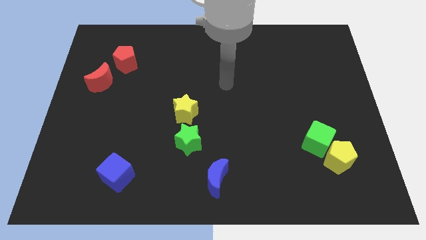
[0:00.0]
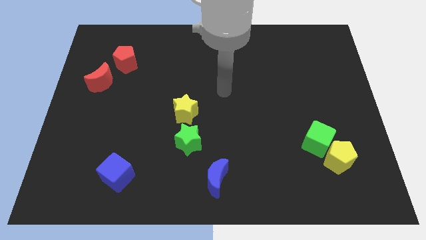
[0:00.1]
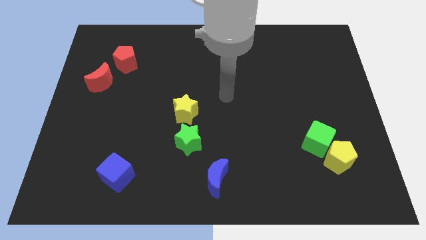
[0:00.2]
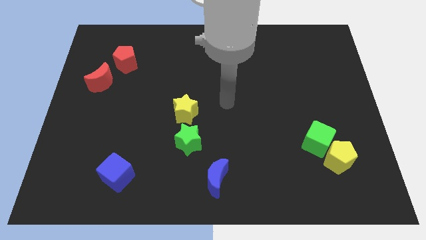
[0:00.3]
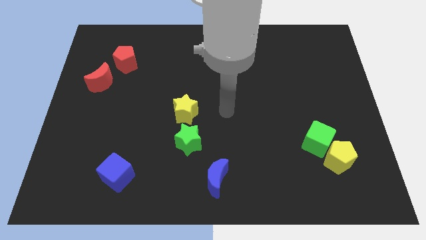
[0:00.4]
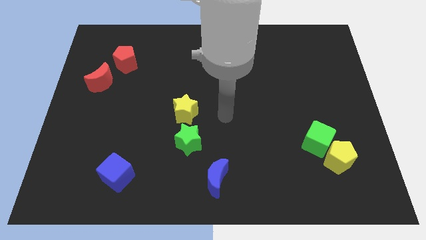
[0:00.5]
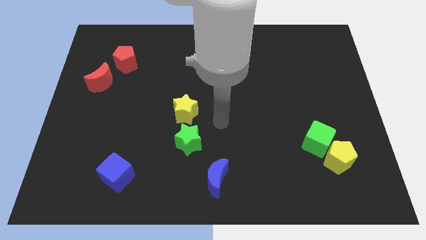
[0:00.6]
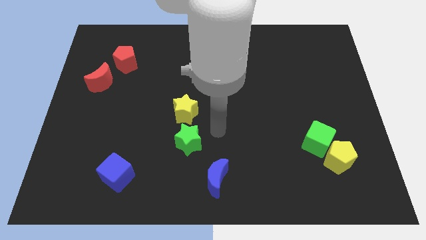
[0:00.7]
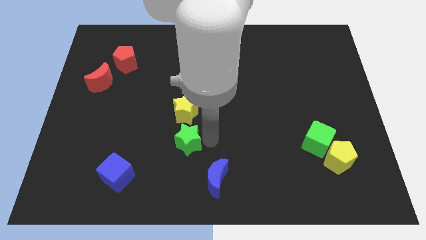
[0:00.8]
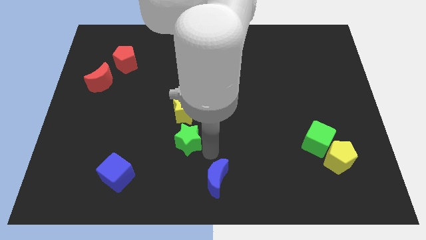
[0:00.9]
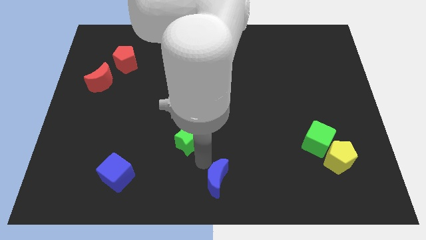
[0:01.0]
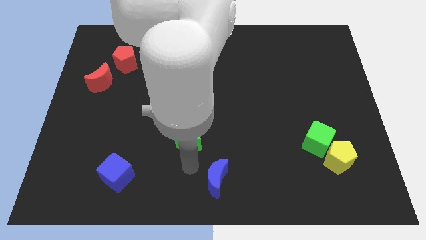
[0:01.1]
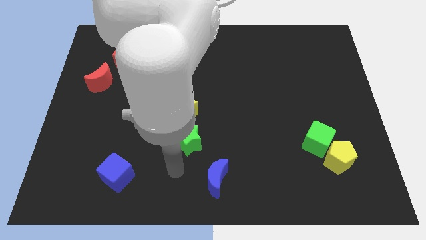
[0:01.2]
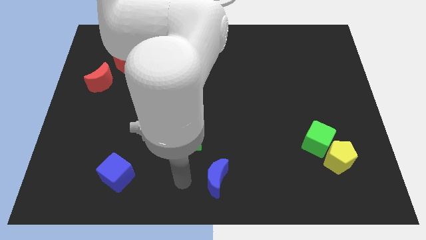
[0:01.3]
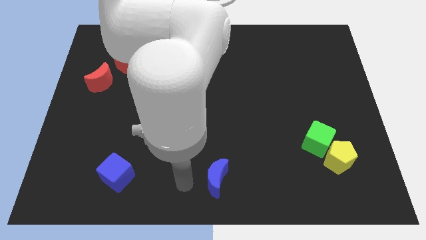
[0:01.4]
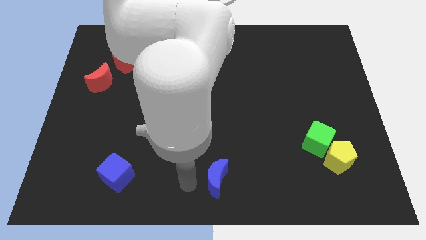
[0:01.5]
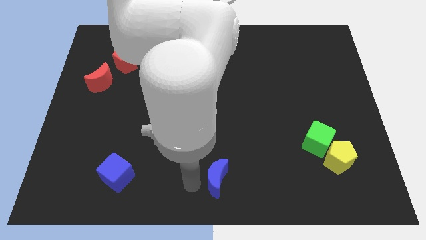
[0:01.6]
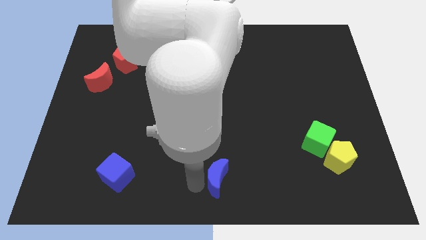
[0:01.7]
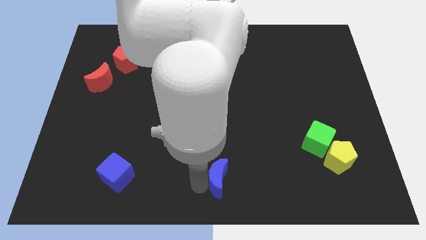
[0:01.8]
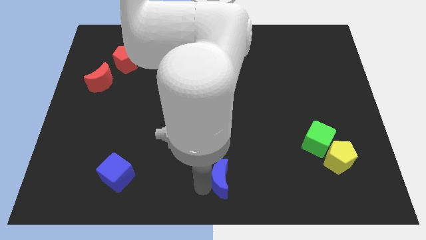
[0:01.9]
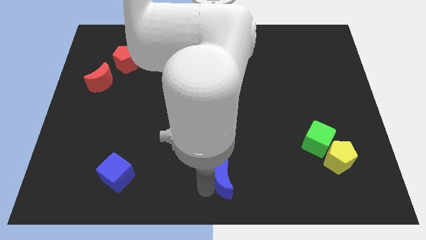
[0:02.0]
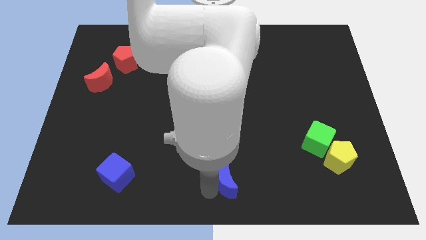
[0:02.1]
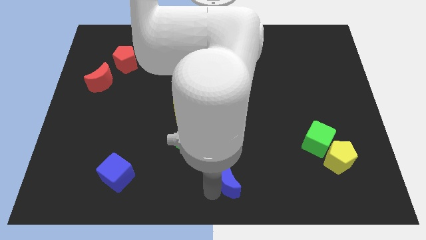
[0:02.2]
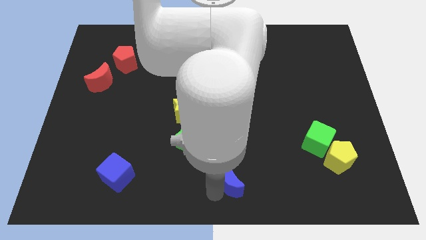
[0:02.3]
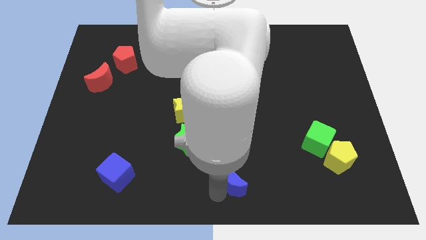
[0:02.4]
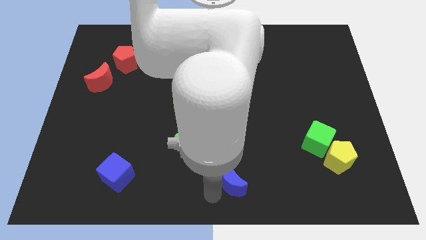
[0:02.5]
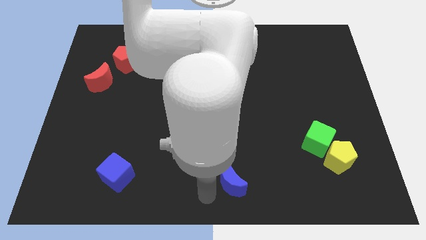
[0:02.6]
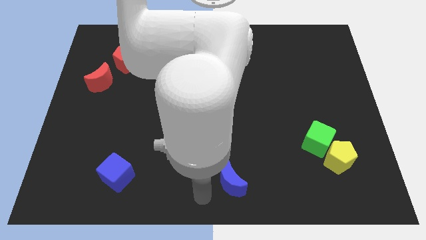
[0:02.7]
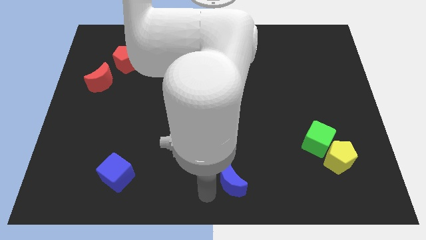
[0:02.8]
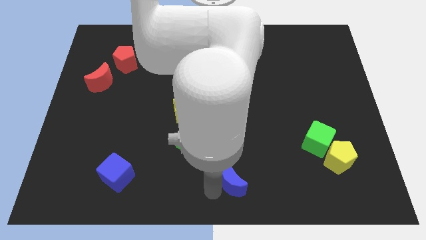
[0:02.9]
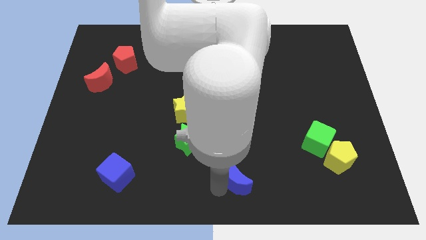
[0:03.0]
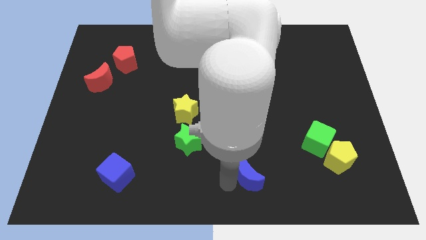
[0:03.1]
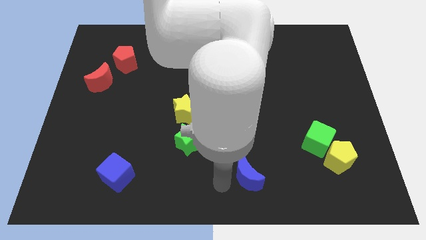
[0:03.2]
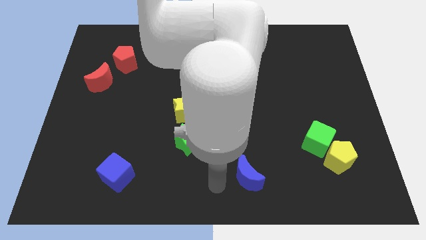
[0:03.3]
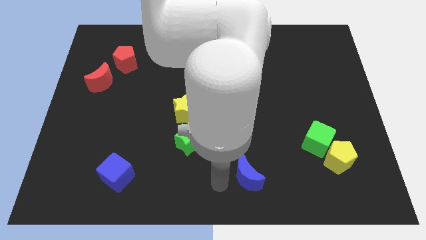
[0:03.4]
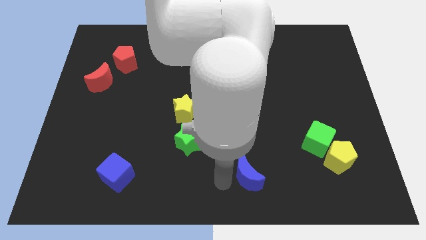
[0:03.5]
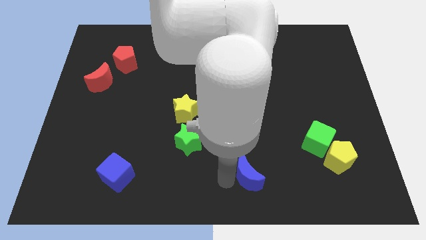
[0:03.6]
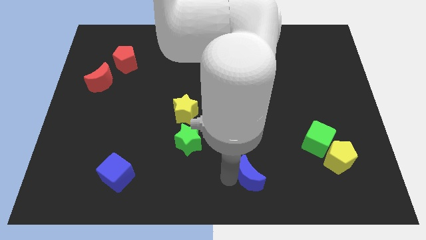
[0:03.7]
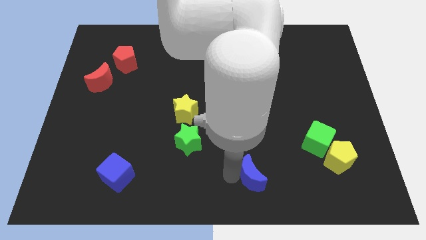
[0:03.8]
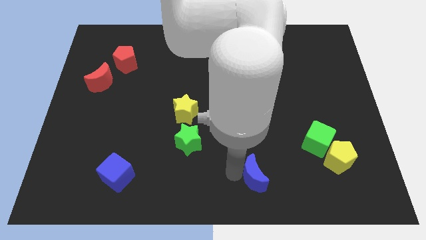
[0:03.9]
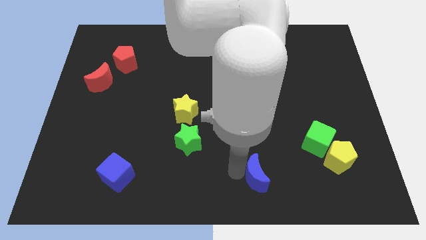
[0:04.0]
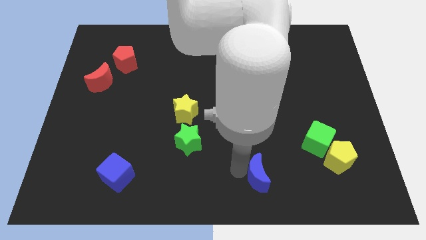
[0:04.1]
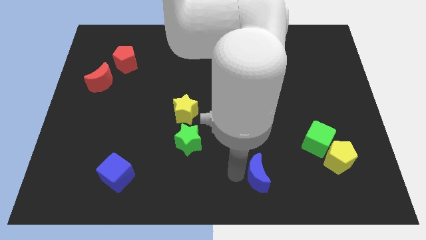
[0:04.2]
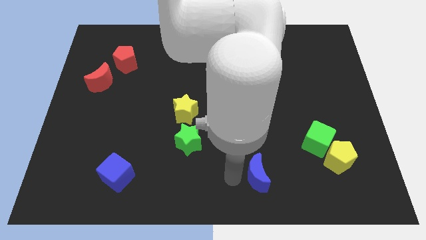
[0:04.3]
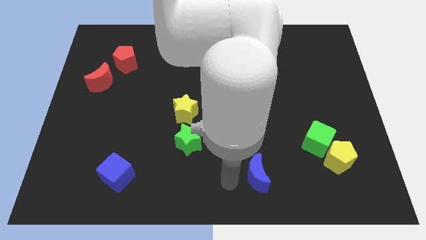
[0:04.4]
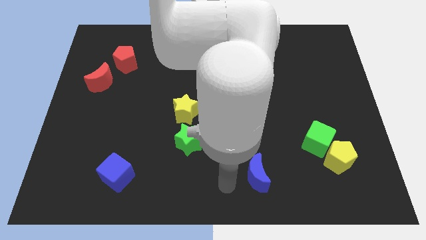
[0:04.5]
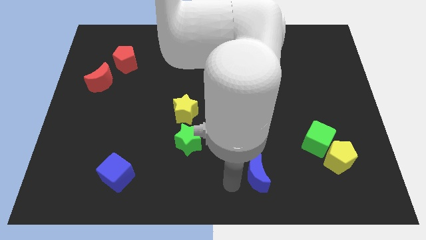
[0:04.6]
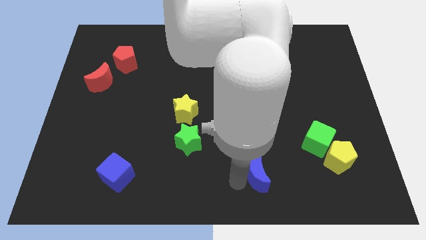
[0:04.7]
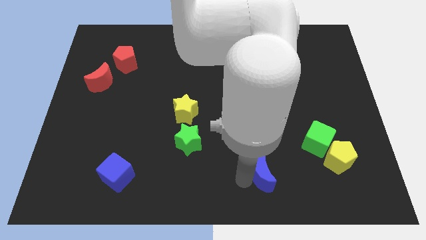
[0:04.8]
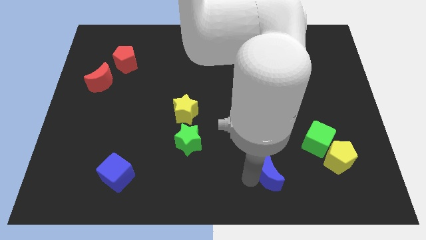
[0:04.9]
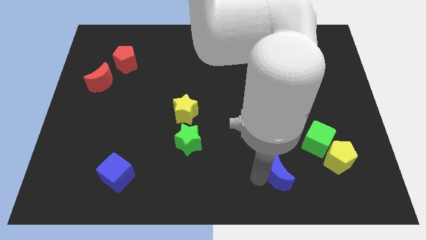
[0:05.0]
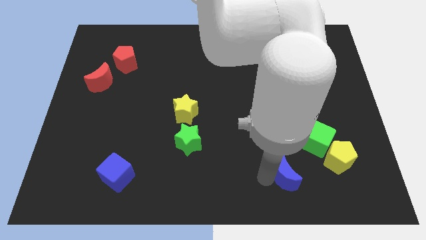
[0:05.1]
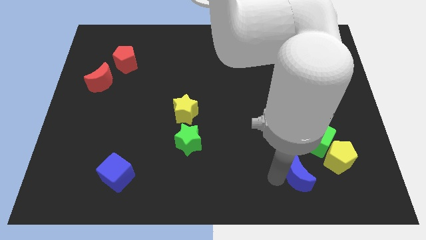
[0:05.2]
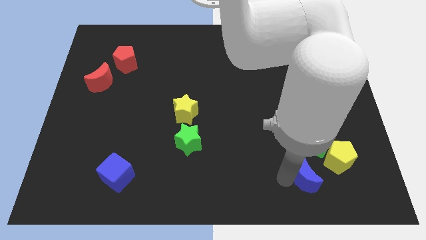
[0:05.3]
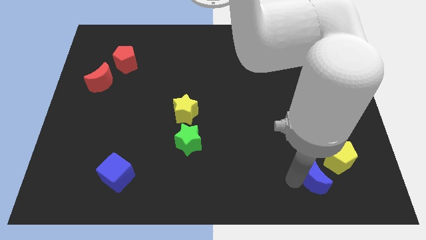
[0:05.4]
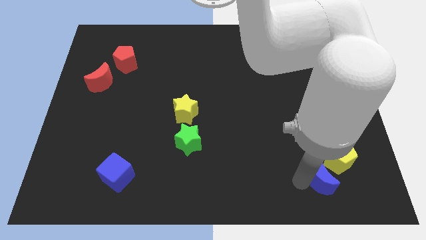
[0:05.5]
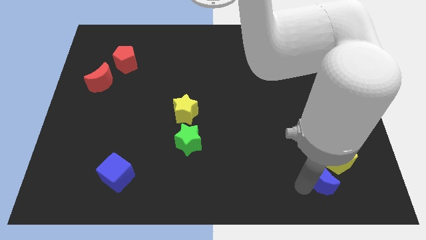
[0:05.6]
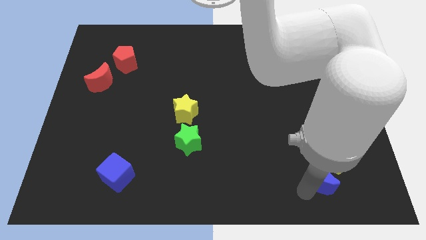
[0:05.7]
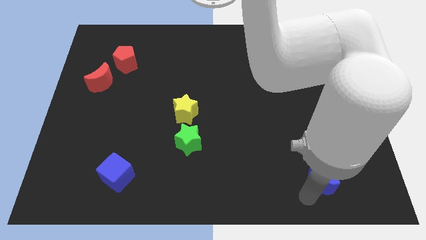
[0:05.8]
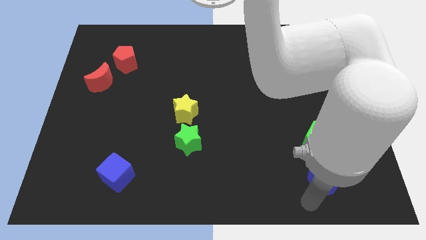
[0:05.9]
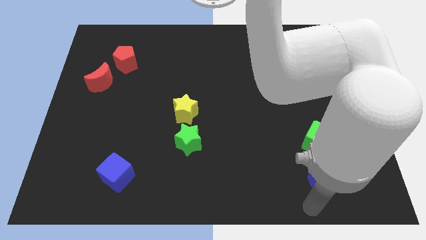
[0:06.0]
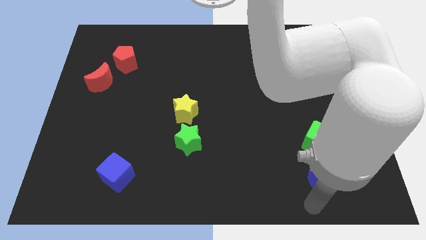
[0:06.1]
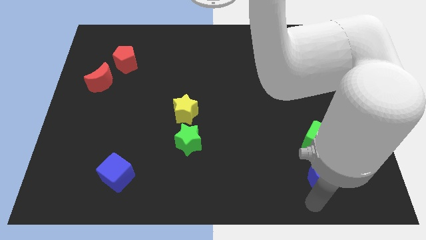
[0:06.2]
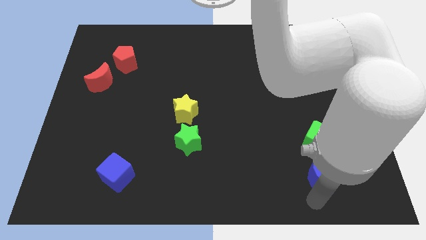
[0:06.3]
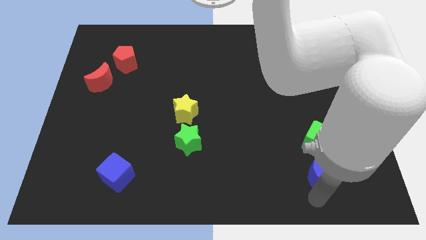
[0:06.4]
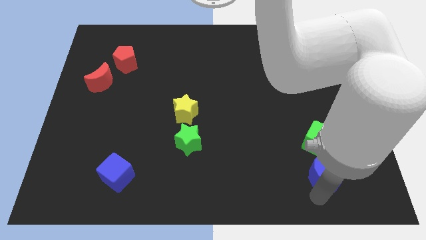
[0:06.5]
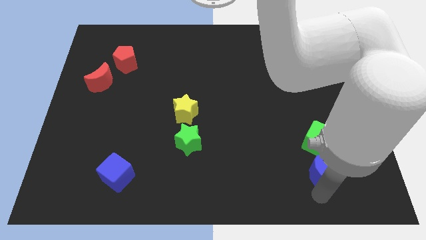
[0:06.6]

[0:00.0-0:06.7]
move the blue moon to the yellow pentagon

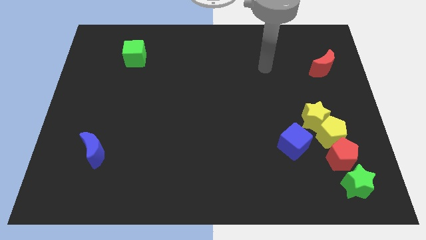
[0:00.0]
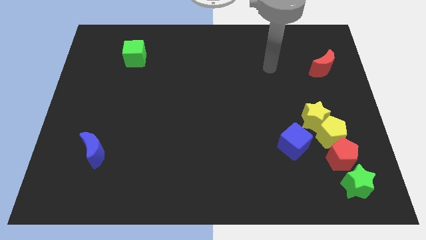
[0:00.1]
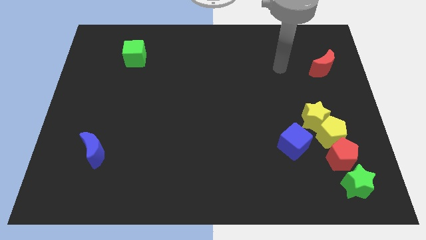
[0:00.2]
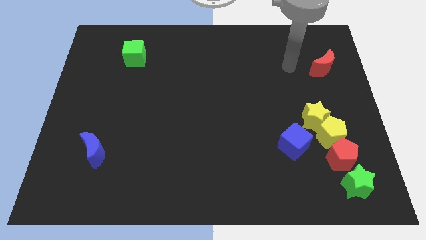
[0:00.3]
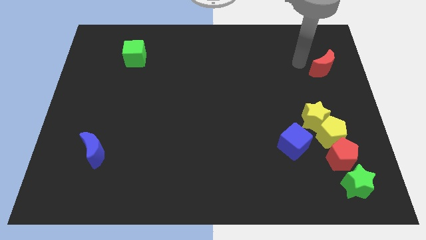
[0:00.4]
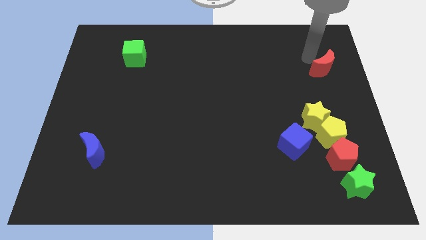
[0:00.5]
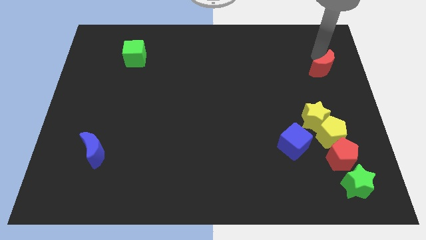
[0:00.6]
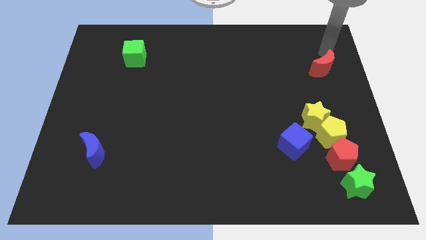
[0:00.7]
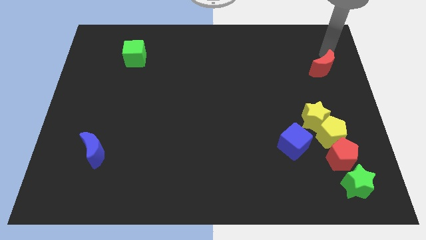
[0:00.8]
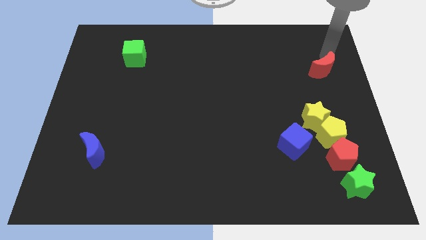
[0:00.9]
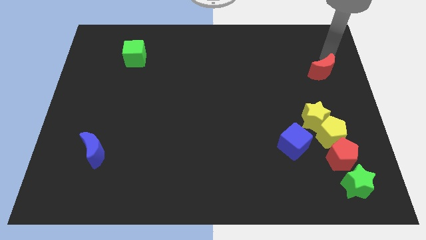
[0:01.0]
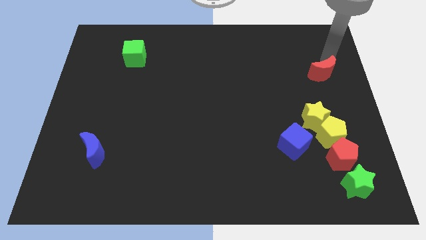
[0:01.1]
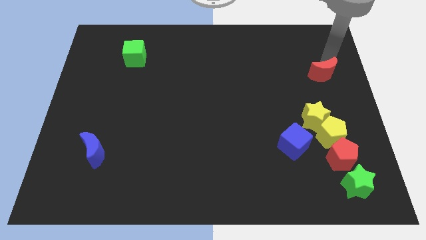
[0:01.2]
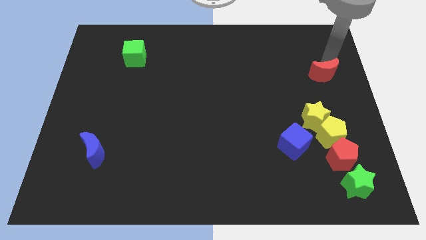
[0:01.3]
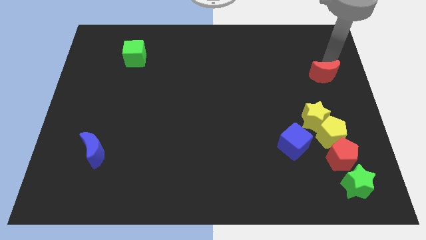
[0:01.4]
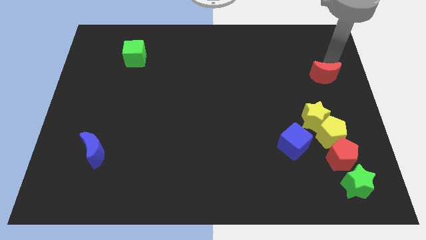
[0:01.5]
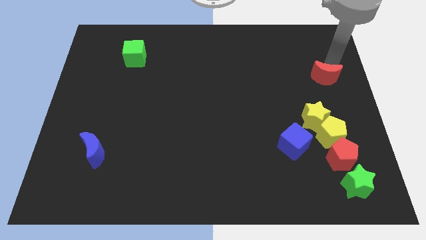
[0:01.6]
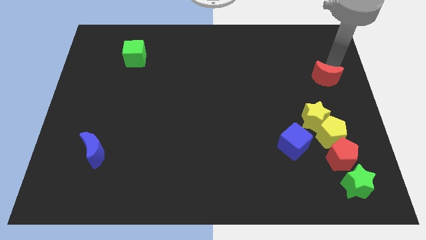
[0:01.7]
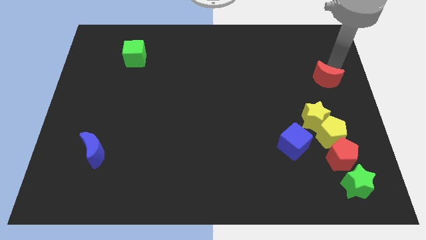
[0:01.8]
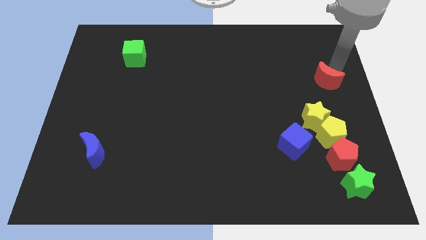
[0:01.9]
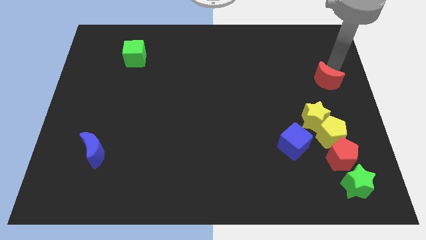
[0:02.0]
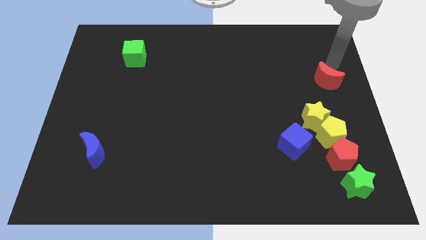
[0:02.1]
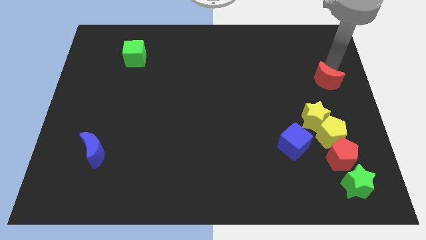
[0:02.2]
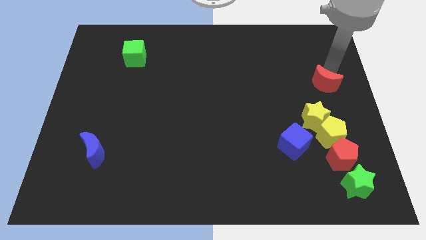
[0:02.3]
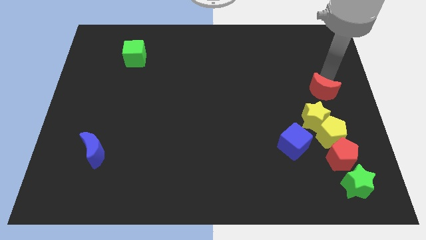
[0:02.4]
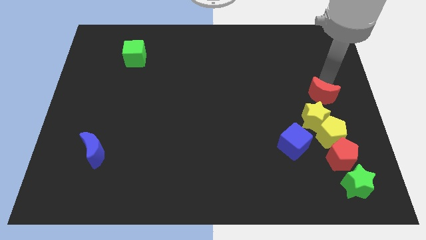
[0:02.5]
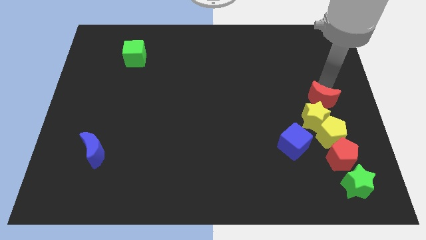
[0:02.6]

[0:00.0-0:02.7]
slide the red moon next to the yellow star
